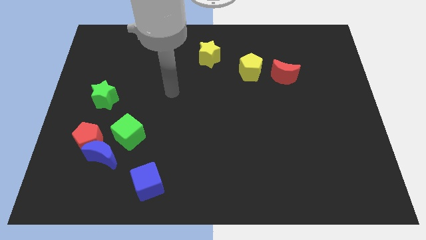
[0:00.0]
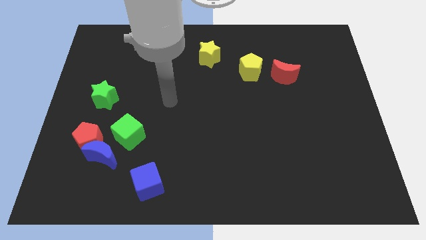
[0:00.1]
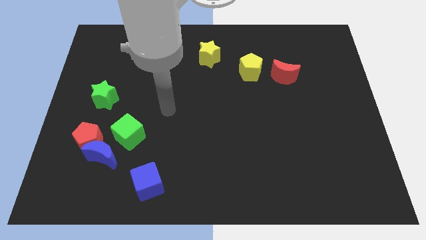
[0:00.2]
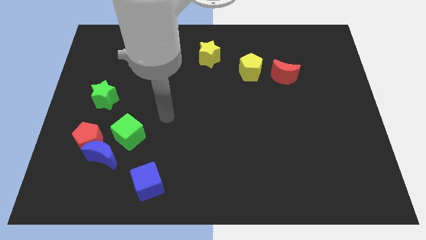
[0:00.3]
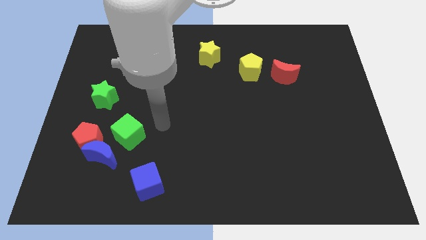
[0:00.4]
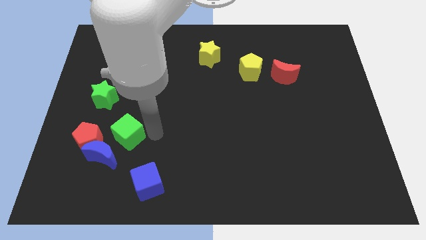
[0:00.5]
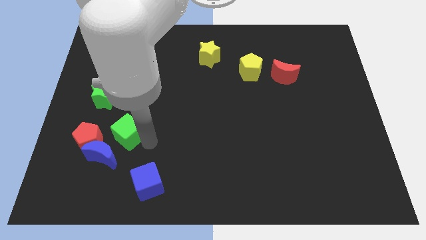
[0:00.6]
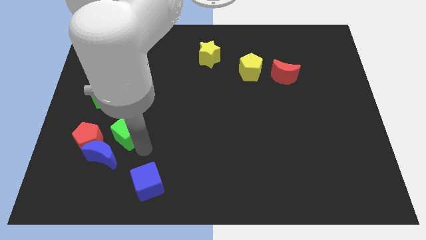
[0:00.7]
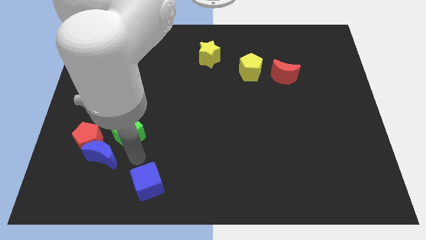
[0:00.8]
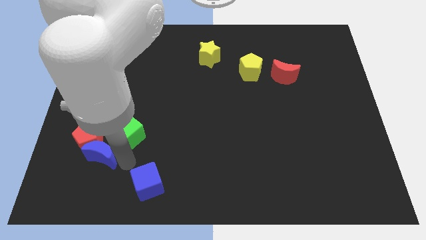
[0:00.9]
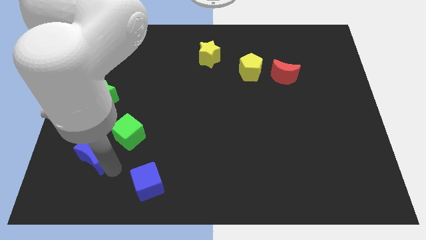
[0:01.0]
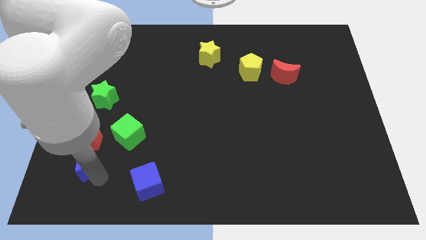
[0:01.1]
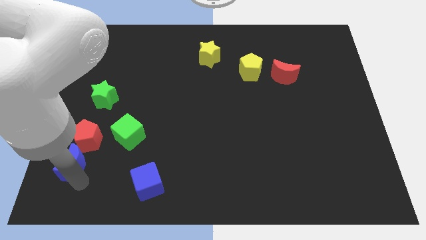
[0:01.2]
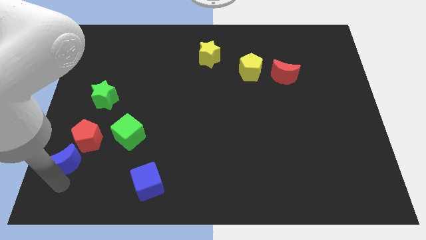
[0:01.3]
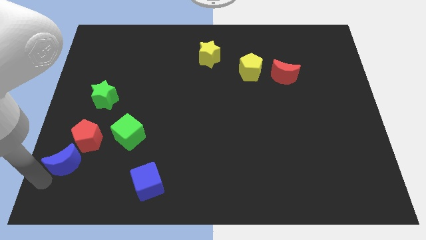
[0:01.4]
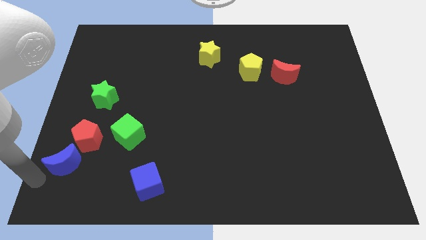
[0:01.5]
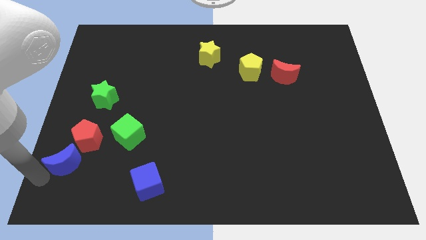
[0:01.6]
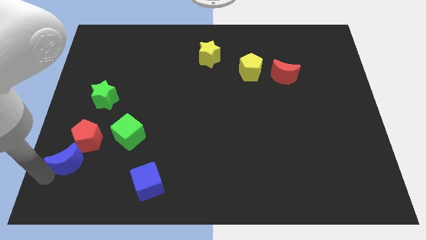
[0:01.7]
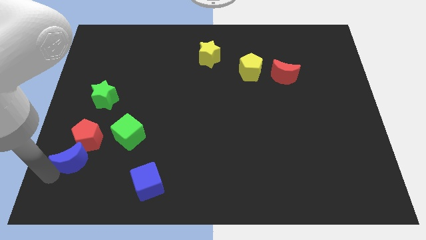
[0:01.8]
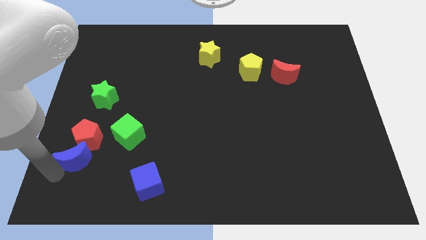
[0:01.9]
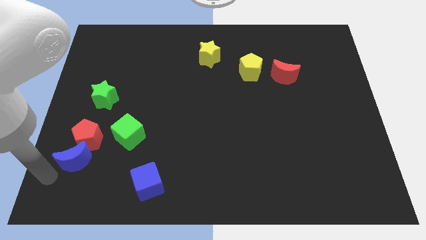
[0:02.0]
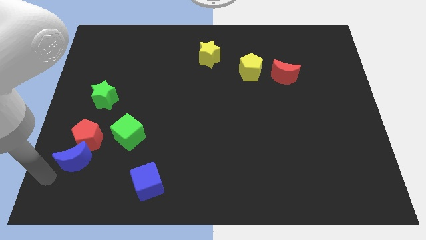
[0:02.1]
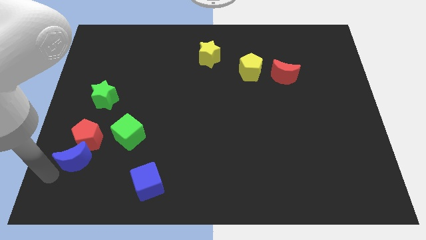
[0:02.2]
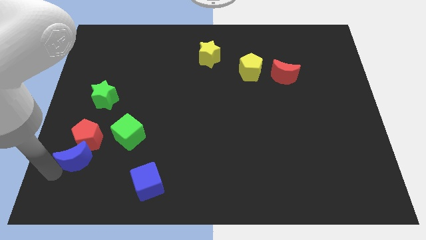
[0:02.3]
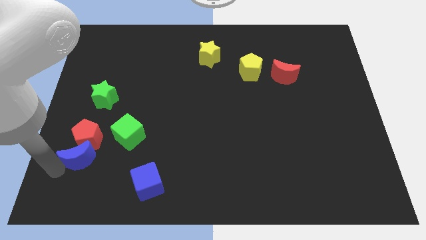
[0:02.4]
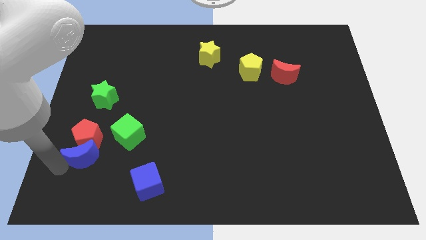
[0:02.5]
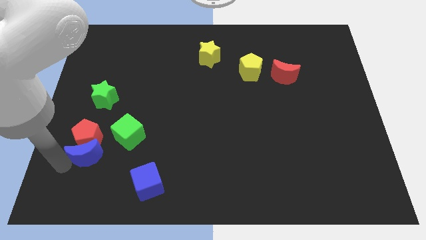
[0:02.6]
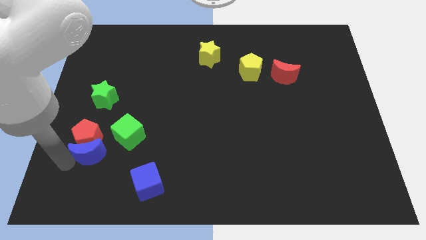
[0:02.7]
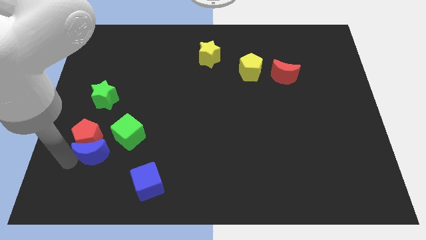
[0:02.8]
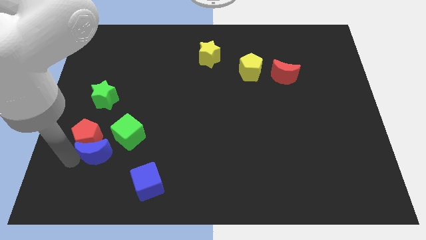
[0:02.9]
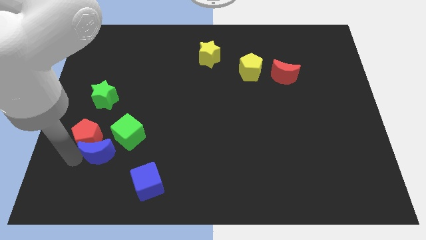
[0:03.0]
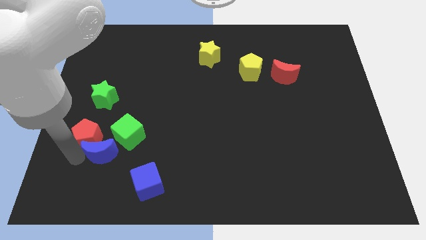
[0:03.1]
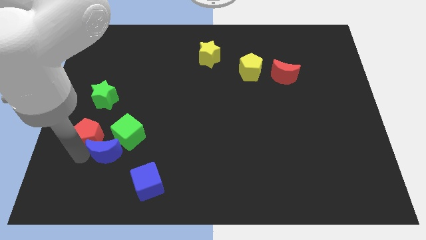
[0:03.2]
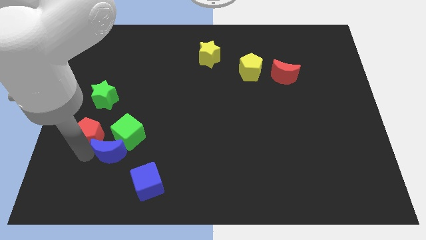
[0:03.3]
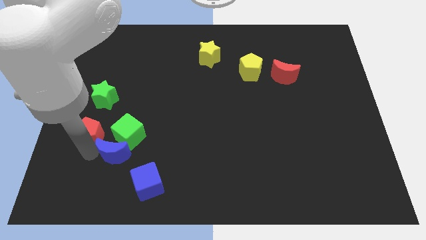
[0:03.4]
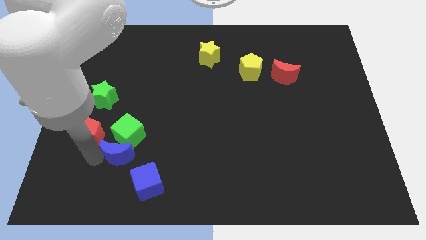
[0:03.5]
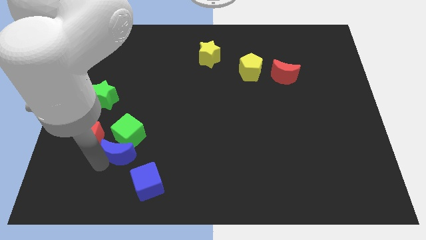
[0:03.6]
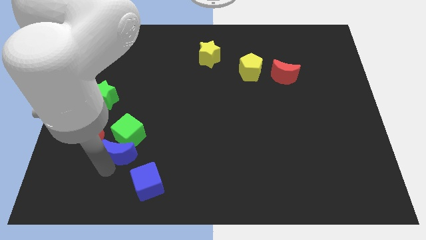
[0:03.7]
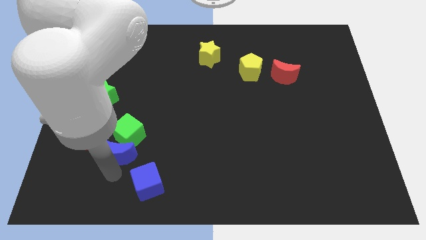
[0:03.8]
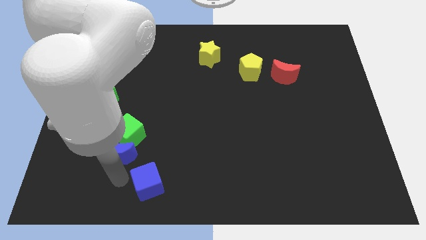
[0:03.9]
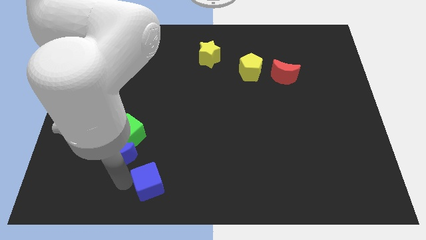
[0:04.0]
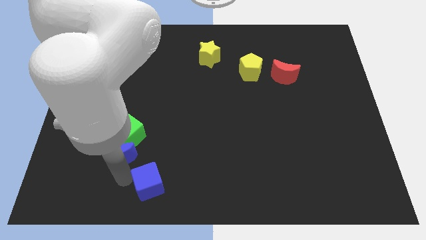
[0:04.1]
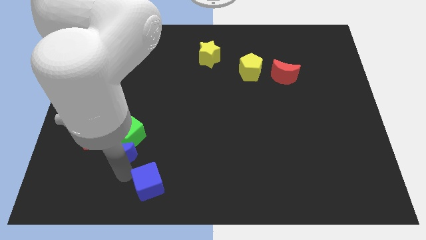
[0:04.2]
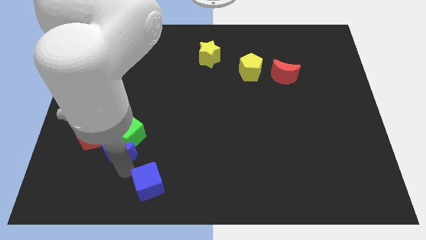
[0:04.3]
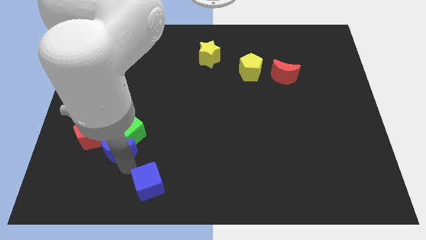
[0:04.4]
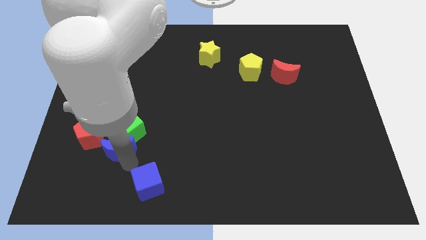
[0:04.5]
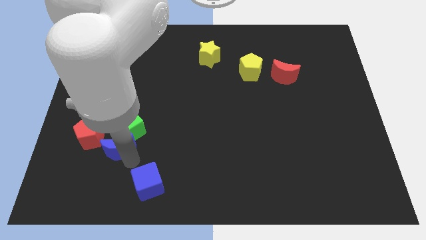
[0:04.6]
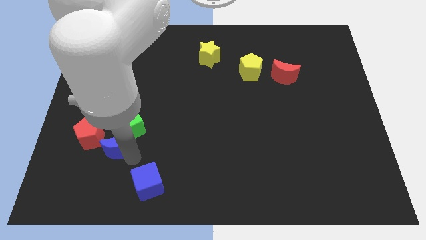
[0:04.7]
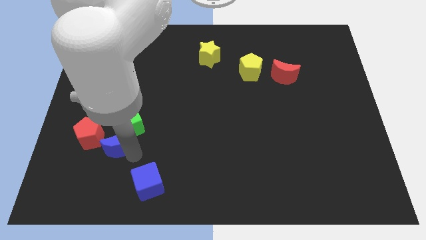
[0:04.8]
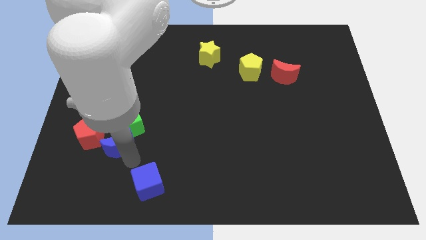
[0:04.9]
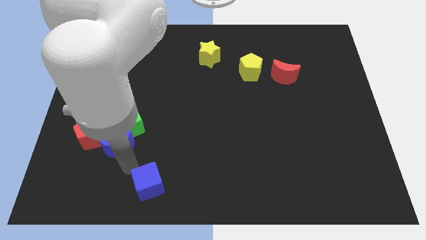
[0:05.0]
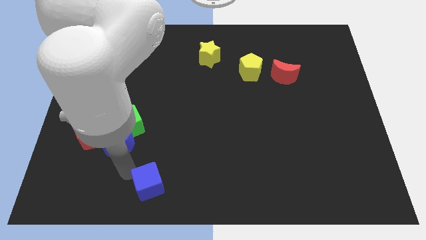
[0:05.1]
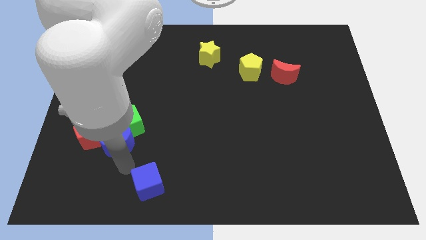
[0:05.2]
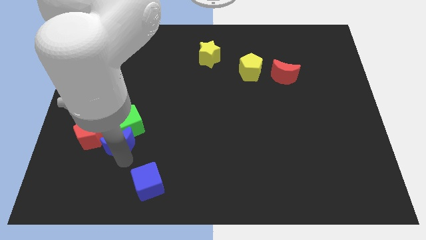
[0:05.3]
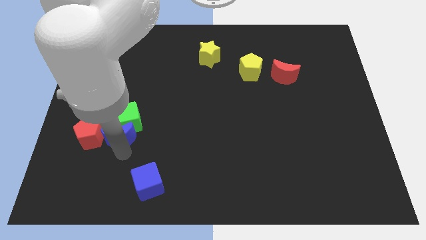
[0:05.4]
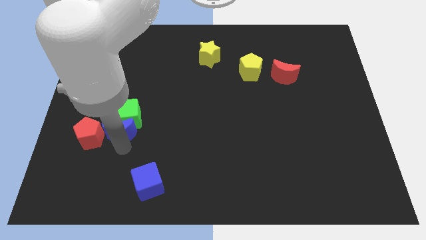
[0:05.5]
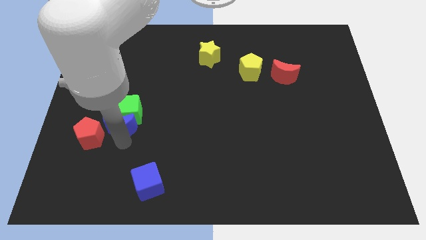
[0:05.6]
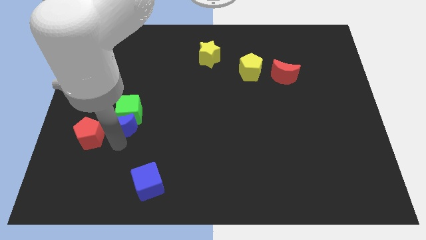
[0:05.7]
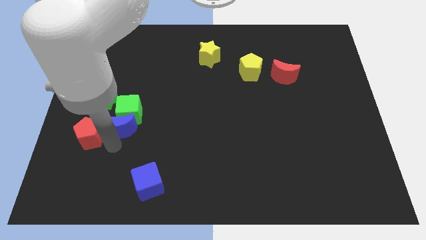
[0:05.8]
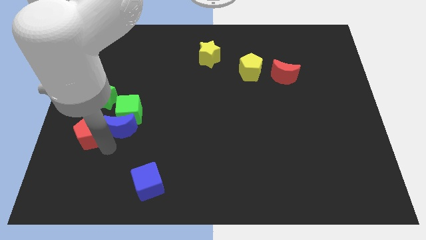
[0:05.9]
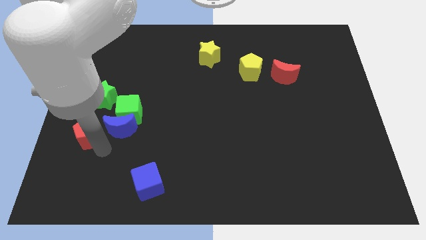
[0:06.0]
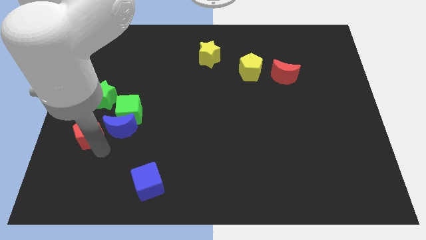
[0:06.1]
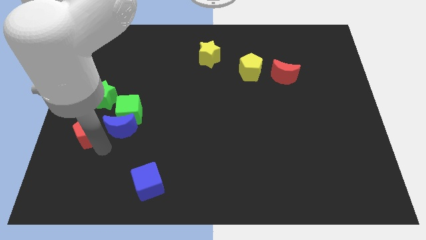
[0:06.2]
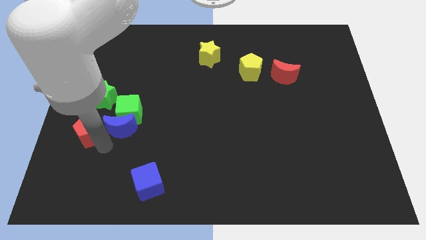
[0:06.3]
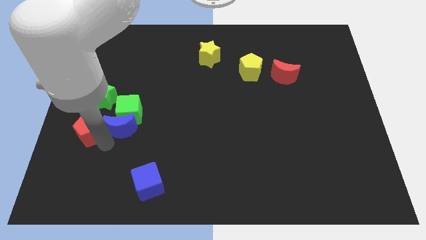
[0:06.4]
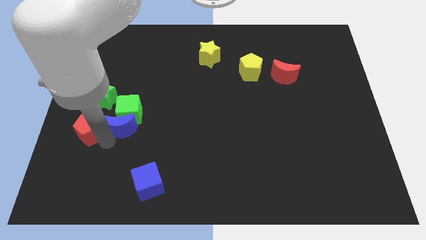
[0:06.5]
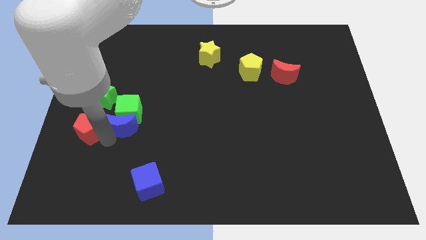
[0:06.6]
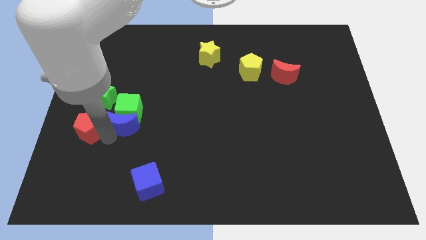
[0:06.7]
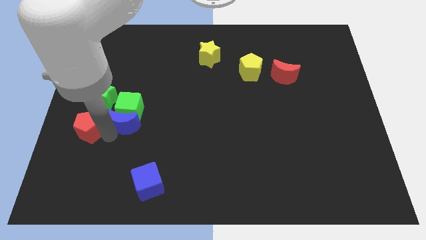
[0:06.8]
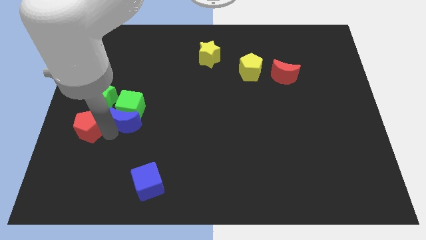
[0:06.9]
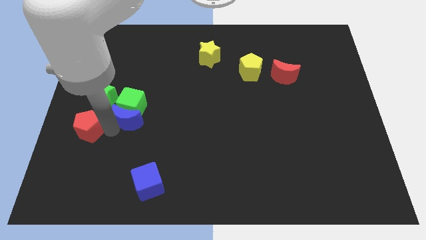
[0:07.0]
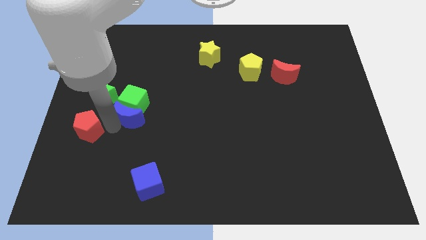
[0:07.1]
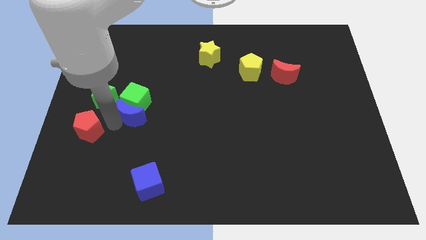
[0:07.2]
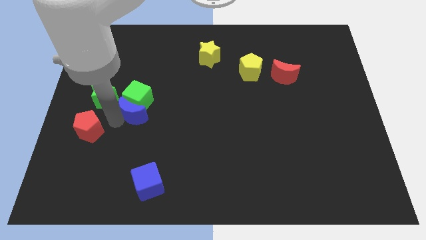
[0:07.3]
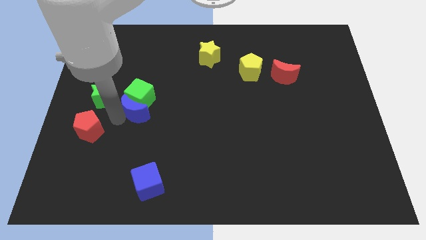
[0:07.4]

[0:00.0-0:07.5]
move the blue moon to the right side of the green star

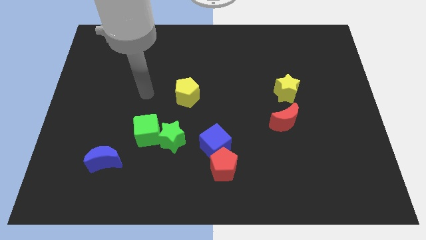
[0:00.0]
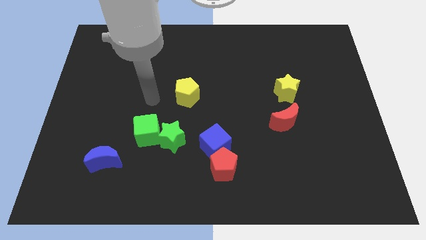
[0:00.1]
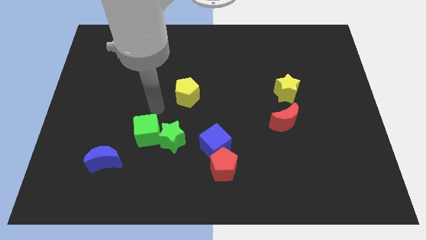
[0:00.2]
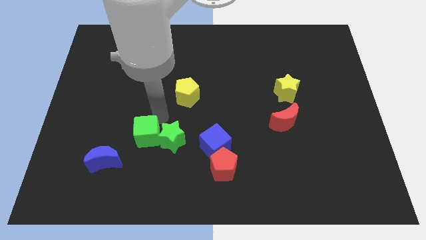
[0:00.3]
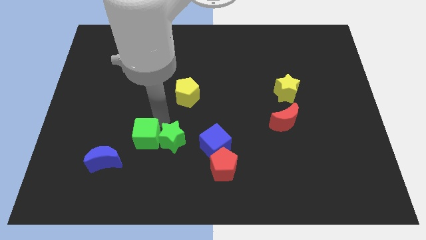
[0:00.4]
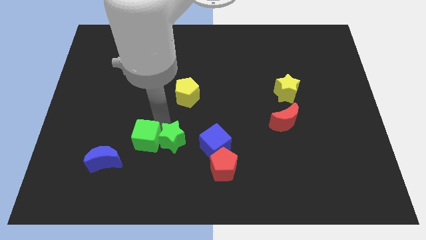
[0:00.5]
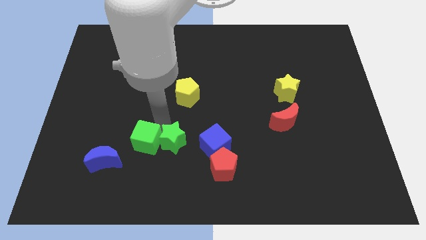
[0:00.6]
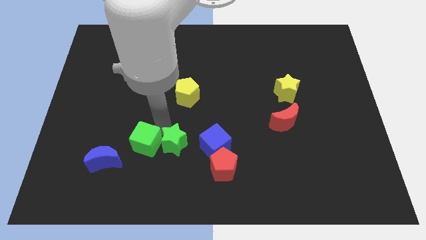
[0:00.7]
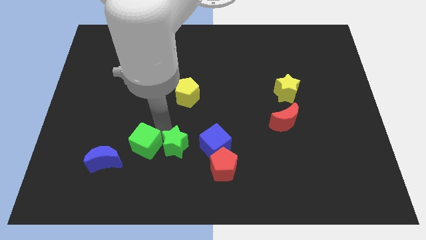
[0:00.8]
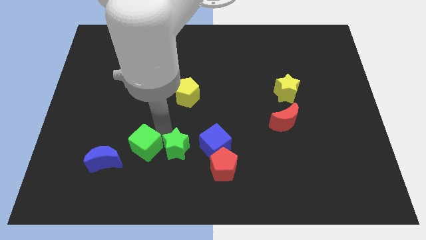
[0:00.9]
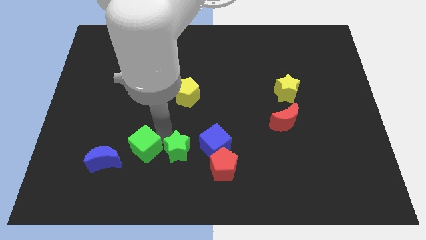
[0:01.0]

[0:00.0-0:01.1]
push the green star diagonally down and to the left of the blue cube
